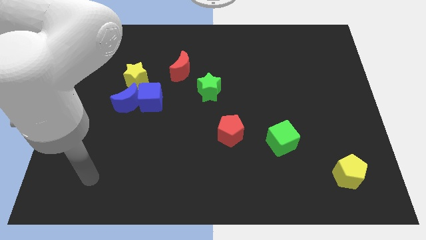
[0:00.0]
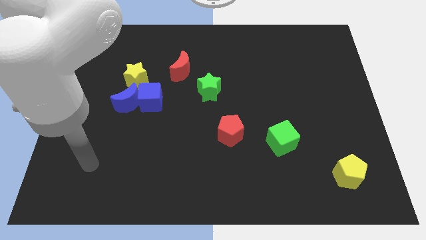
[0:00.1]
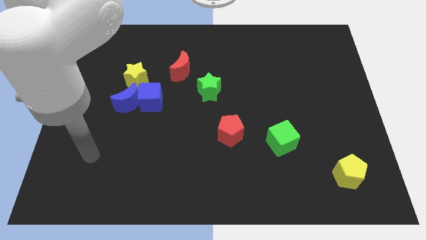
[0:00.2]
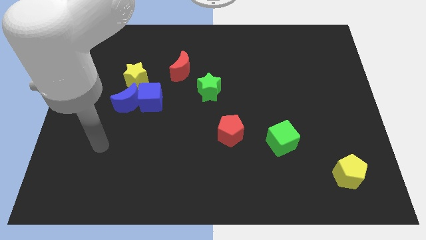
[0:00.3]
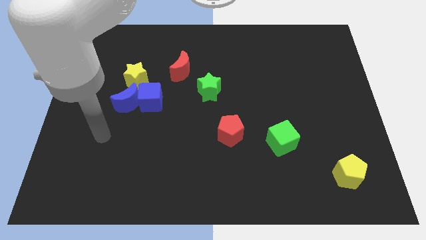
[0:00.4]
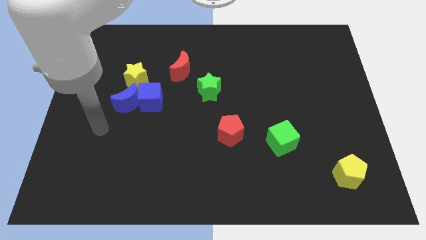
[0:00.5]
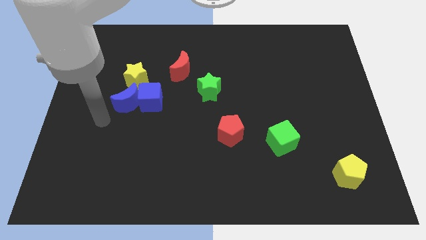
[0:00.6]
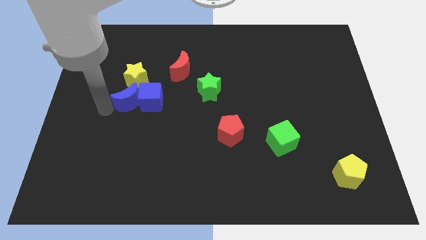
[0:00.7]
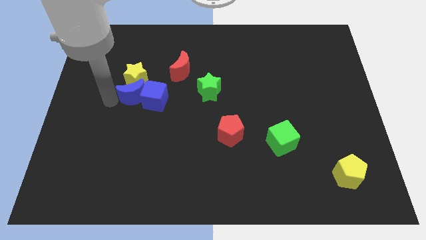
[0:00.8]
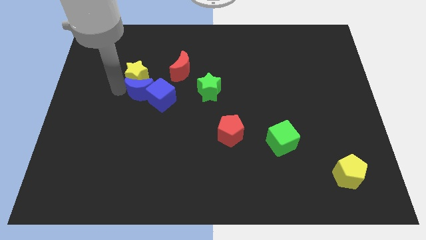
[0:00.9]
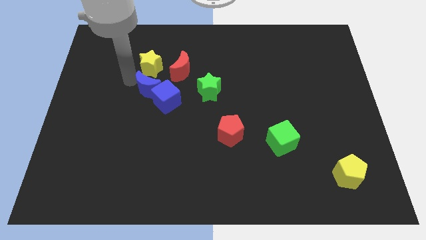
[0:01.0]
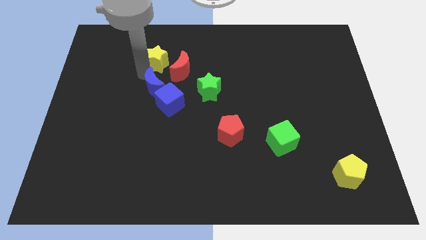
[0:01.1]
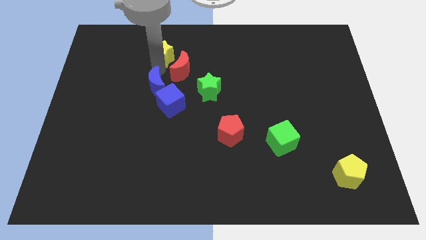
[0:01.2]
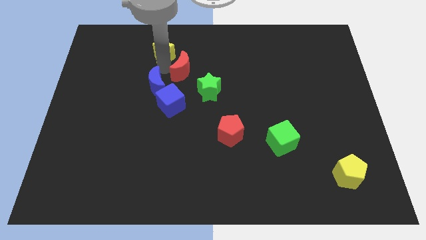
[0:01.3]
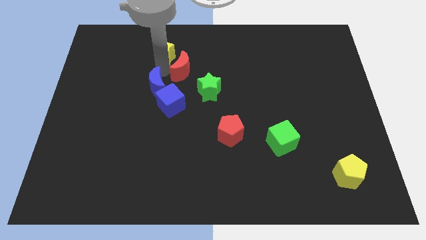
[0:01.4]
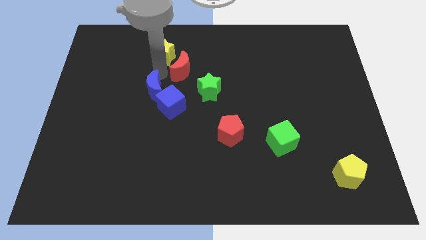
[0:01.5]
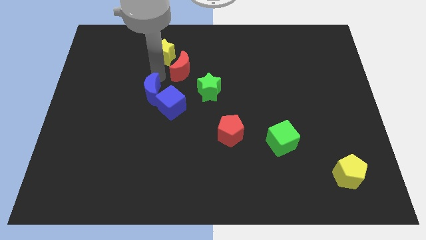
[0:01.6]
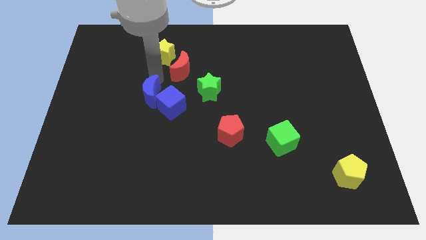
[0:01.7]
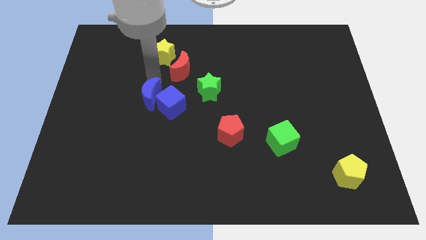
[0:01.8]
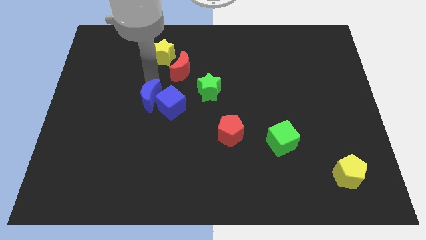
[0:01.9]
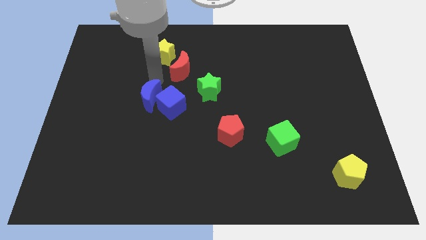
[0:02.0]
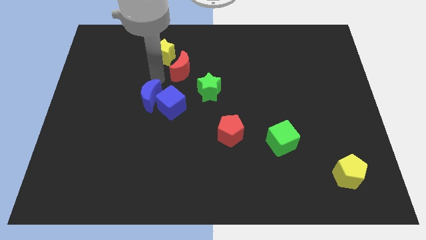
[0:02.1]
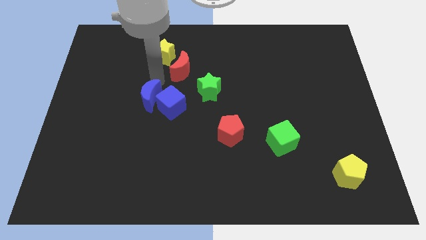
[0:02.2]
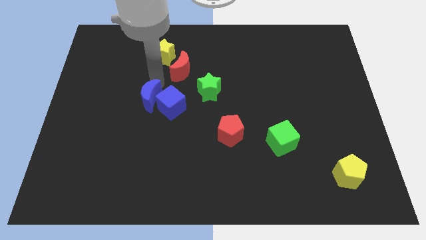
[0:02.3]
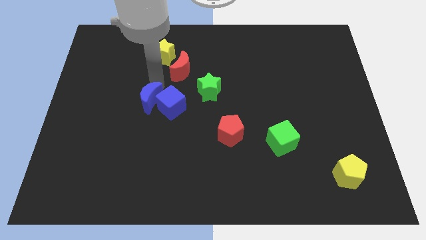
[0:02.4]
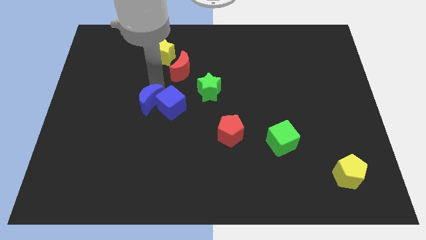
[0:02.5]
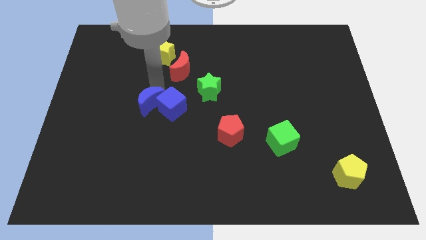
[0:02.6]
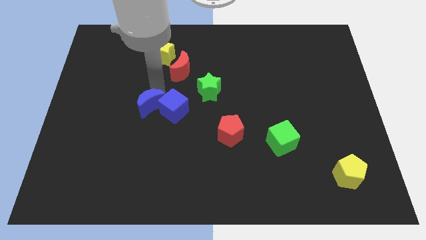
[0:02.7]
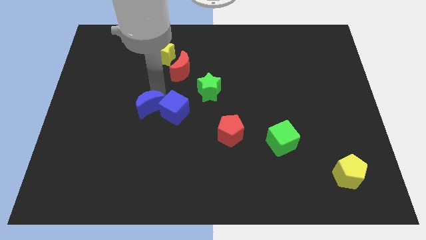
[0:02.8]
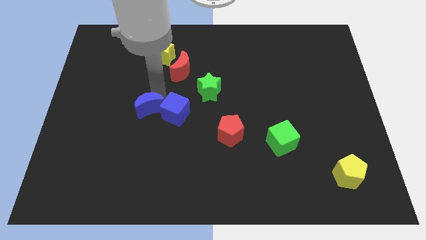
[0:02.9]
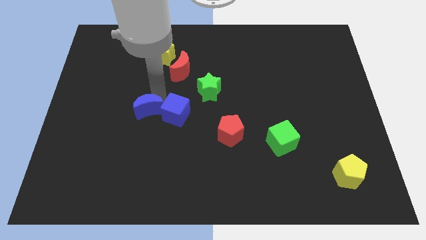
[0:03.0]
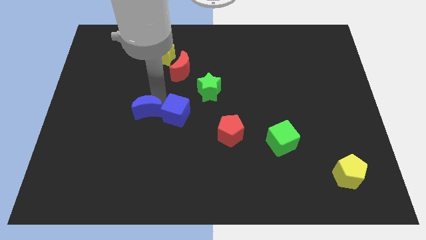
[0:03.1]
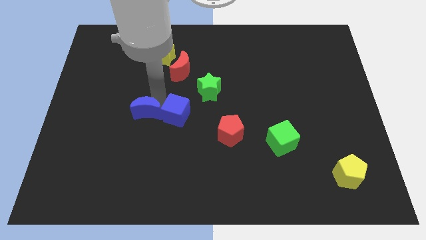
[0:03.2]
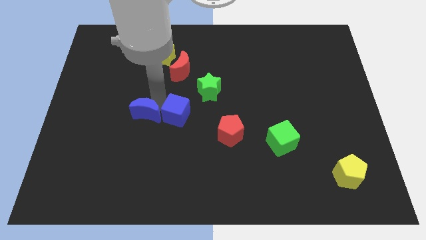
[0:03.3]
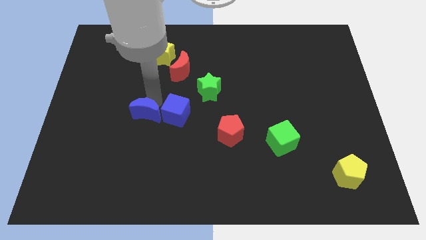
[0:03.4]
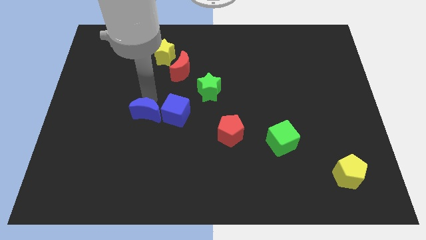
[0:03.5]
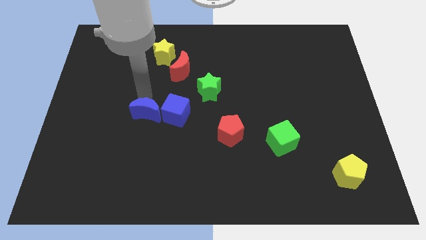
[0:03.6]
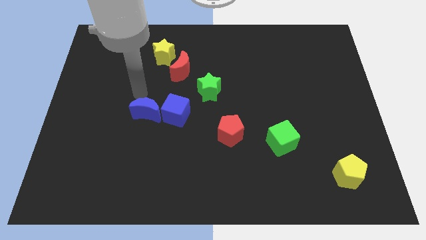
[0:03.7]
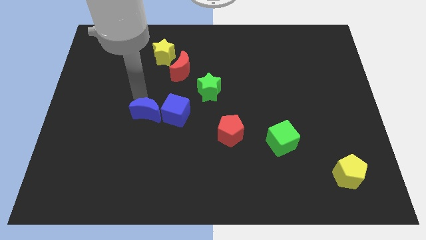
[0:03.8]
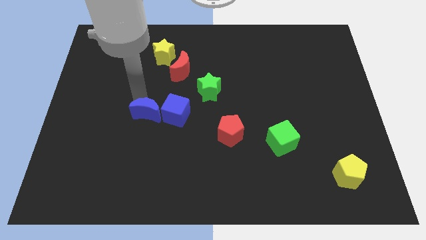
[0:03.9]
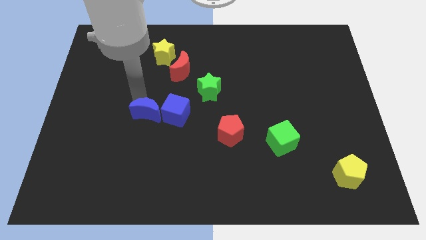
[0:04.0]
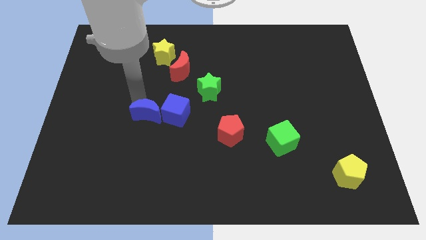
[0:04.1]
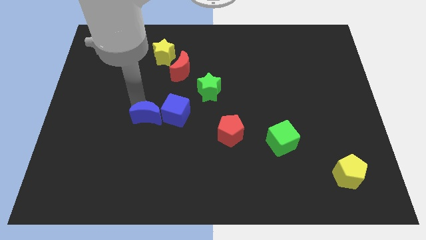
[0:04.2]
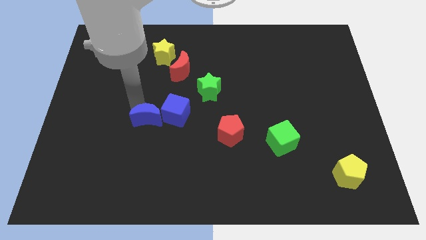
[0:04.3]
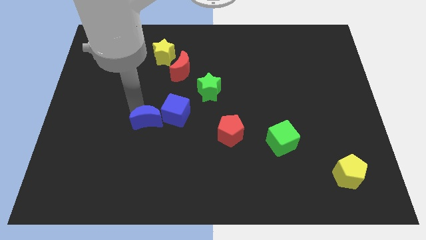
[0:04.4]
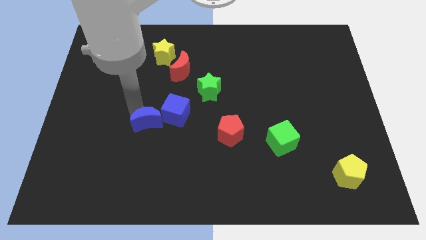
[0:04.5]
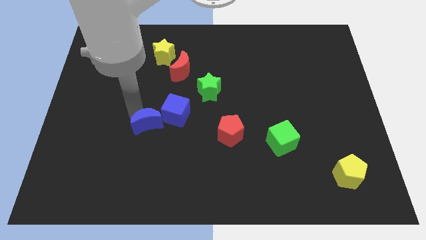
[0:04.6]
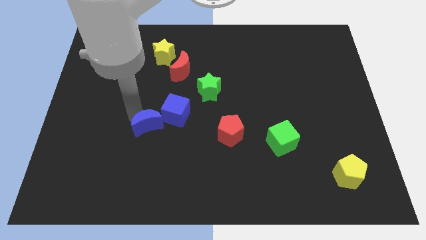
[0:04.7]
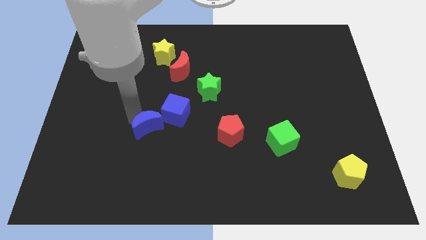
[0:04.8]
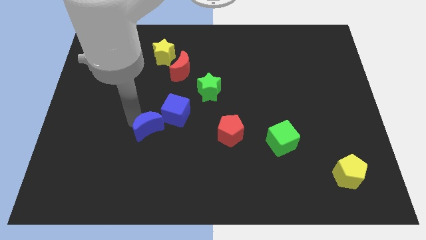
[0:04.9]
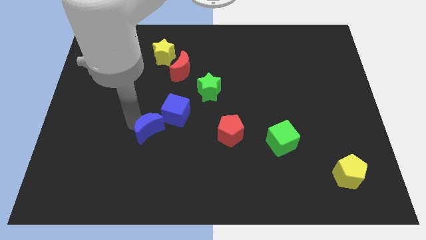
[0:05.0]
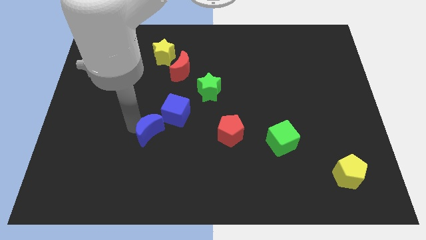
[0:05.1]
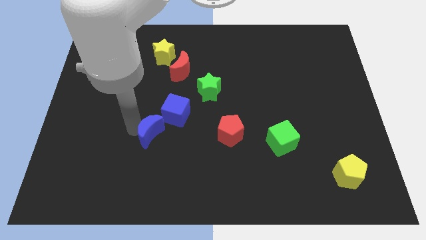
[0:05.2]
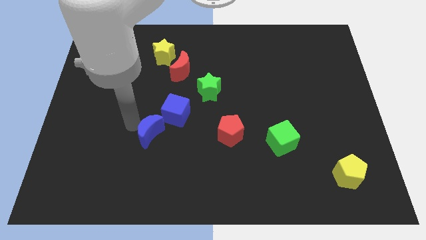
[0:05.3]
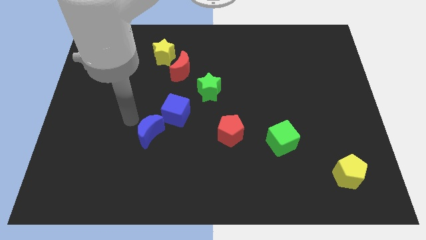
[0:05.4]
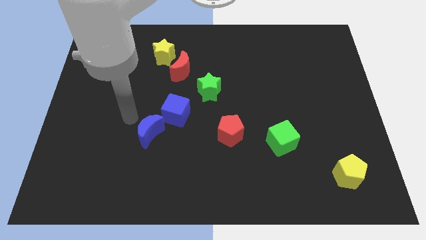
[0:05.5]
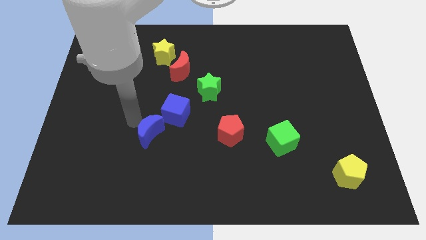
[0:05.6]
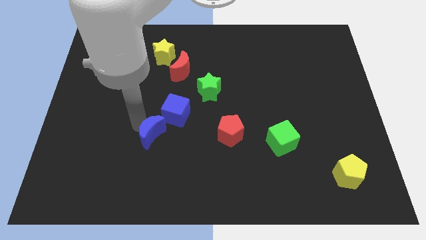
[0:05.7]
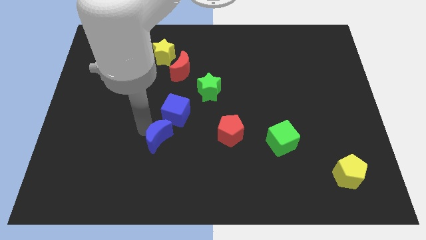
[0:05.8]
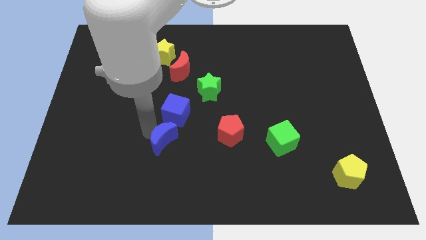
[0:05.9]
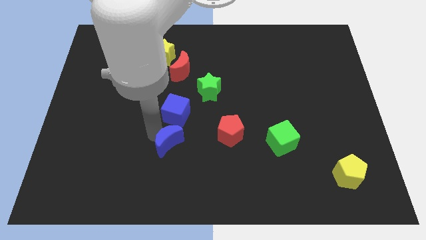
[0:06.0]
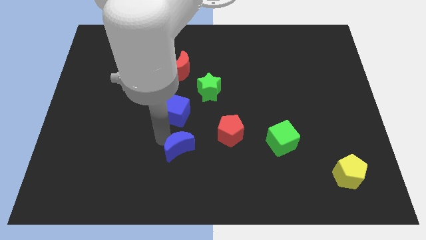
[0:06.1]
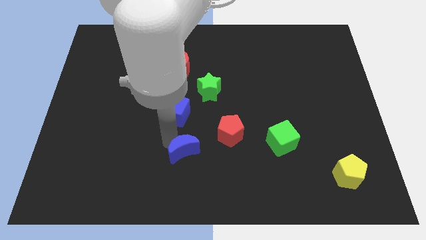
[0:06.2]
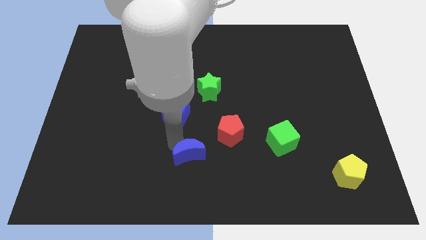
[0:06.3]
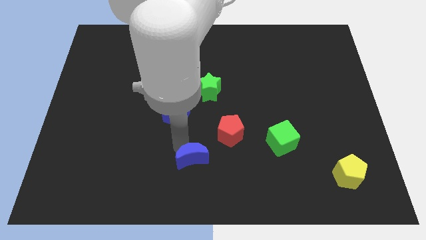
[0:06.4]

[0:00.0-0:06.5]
put the blue moon to the bottom side

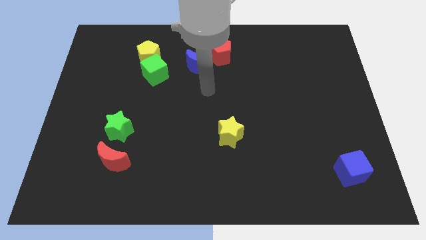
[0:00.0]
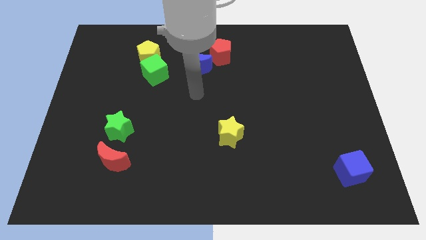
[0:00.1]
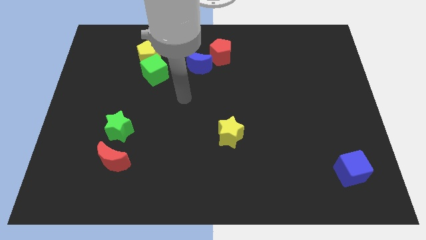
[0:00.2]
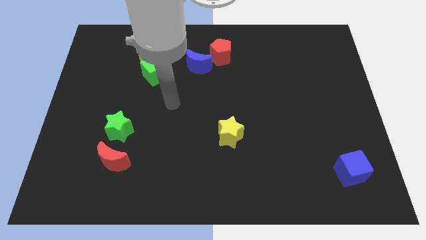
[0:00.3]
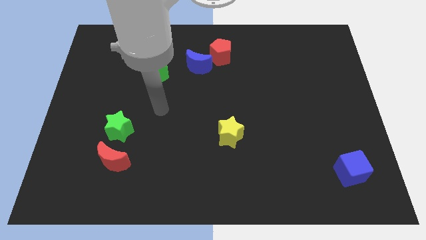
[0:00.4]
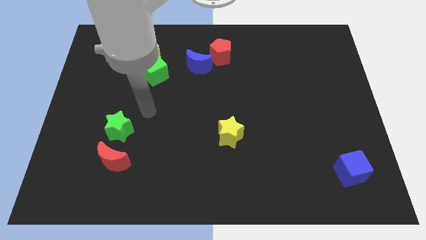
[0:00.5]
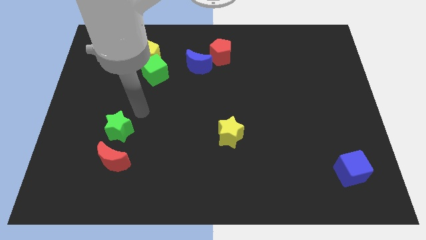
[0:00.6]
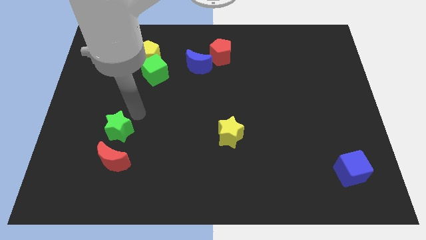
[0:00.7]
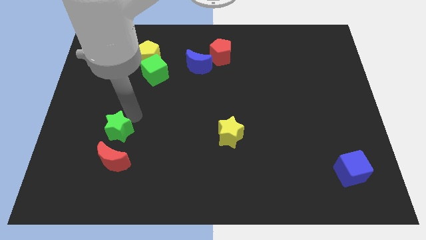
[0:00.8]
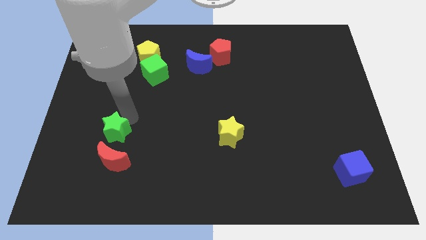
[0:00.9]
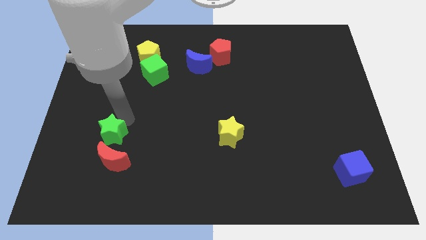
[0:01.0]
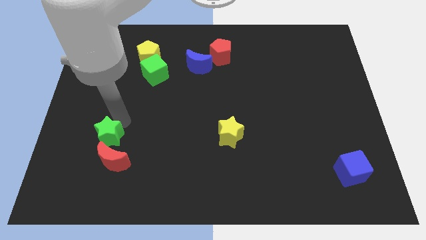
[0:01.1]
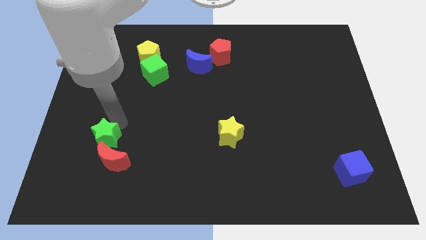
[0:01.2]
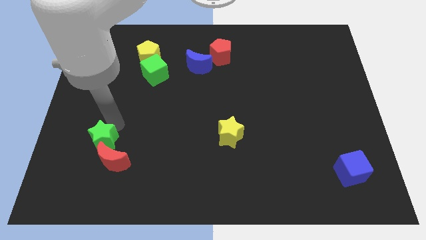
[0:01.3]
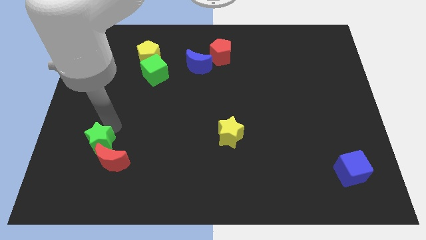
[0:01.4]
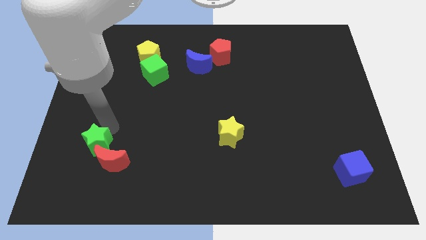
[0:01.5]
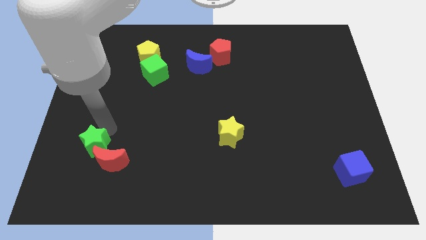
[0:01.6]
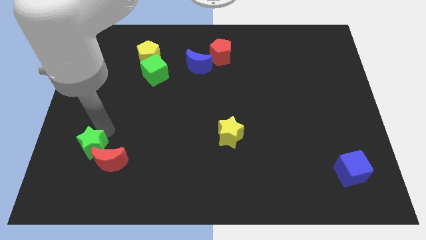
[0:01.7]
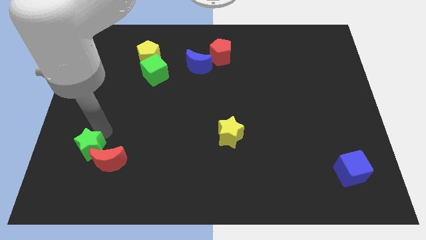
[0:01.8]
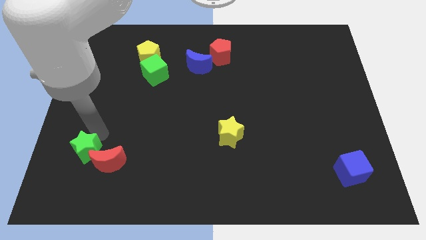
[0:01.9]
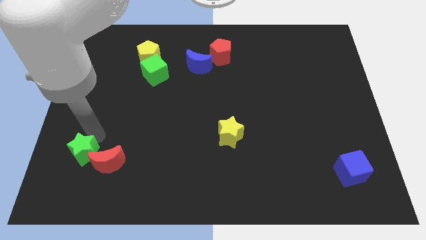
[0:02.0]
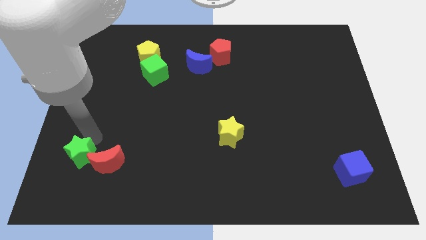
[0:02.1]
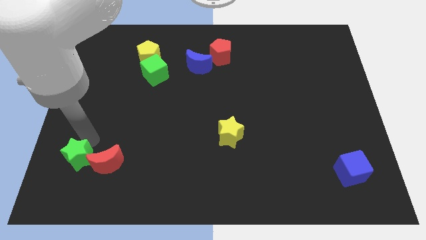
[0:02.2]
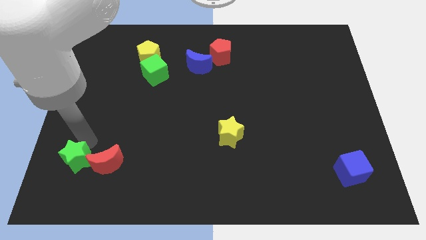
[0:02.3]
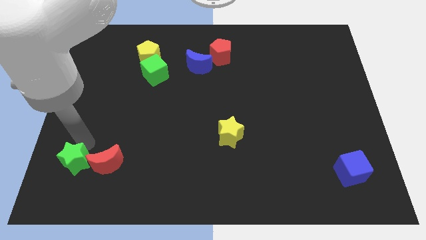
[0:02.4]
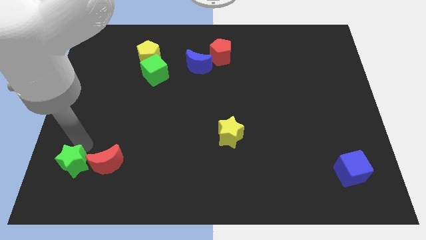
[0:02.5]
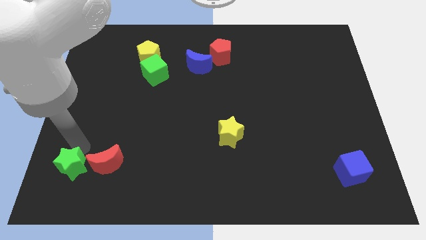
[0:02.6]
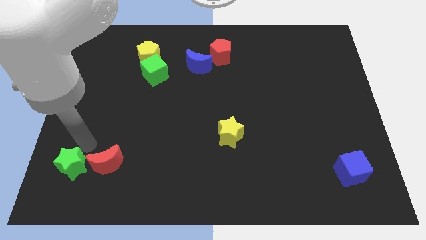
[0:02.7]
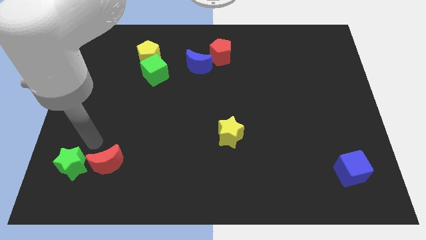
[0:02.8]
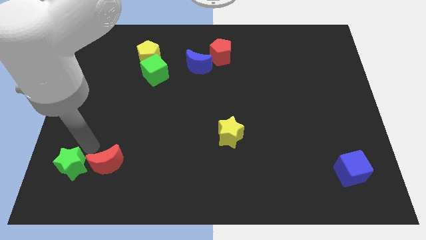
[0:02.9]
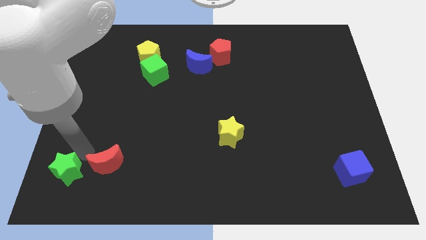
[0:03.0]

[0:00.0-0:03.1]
push the green star to the bottom left corner
